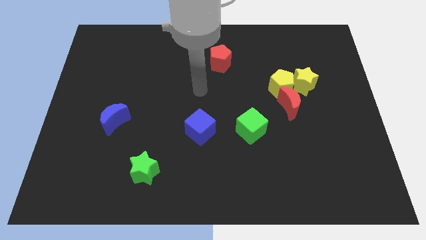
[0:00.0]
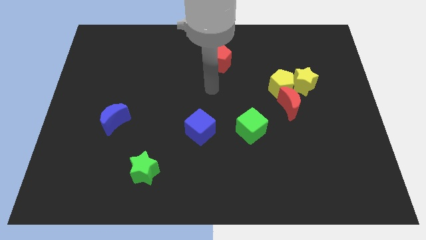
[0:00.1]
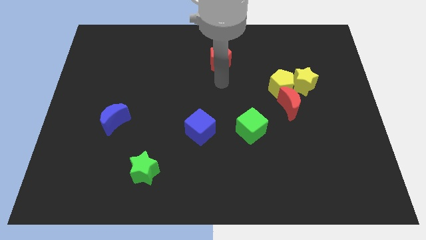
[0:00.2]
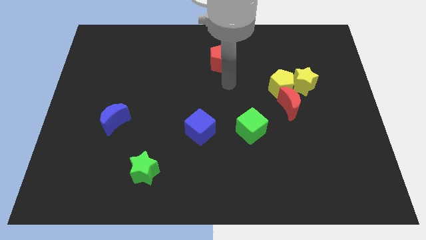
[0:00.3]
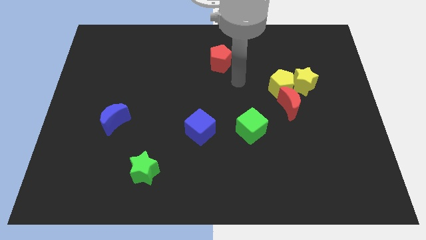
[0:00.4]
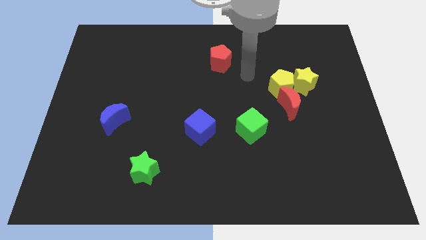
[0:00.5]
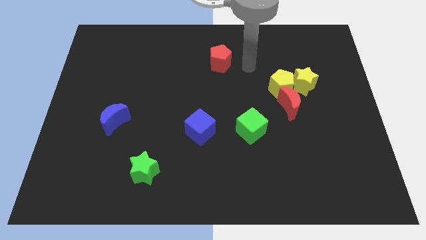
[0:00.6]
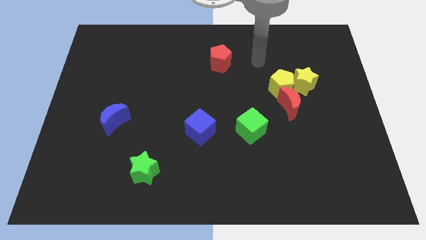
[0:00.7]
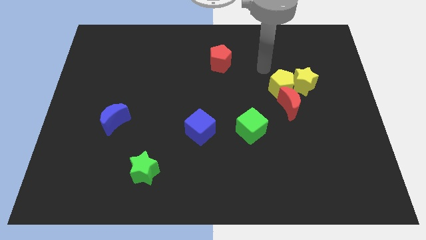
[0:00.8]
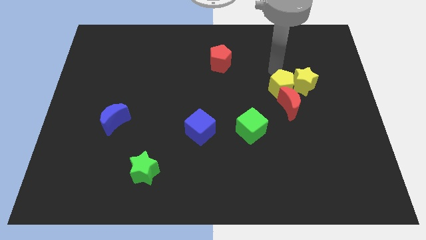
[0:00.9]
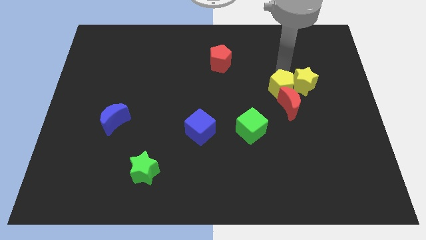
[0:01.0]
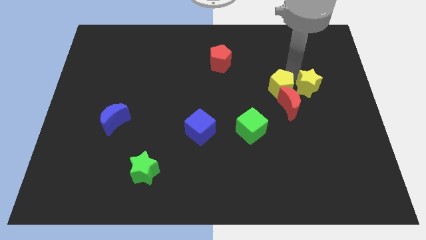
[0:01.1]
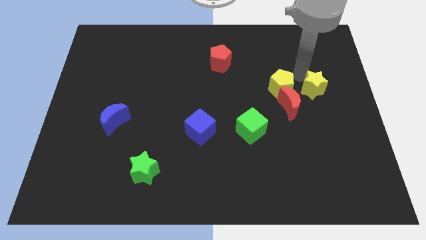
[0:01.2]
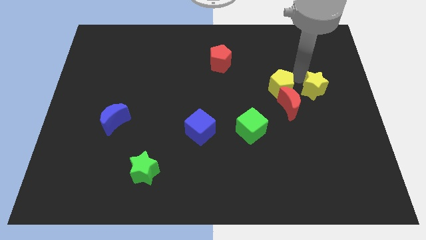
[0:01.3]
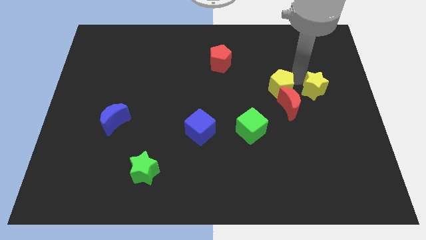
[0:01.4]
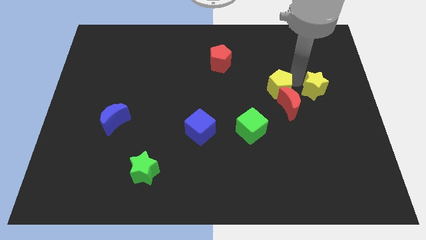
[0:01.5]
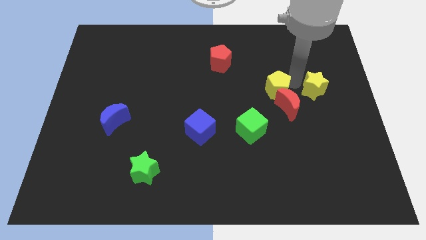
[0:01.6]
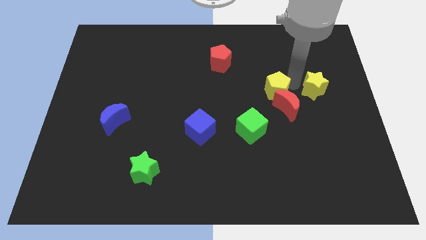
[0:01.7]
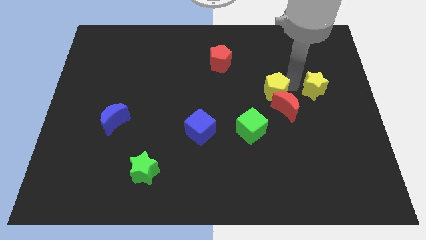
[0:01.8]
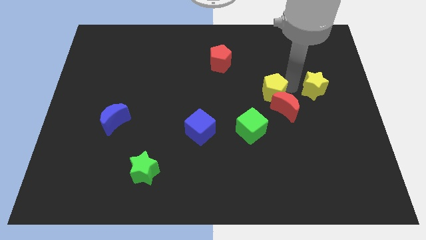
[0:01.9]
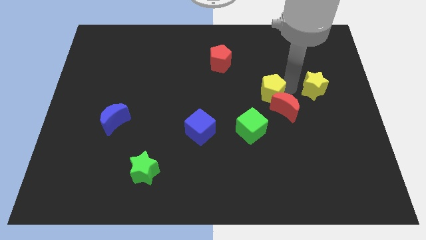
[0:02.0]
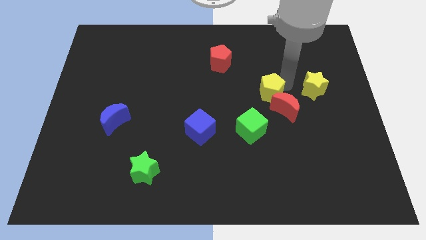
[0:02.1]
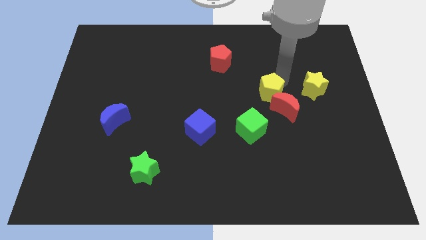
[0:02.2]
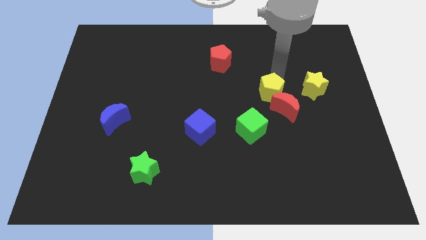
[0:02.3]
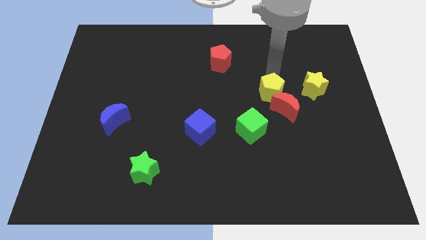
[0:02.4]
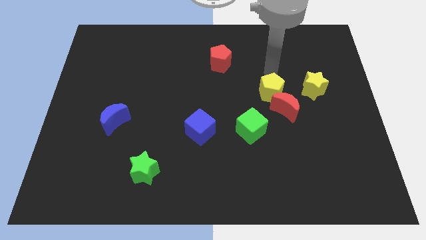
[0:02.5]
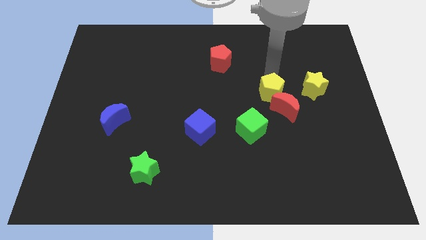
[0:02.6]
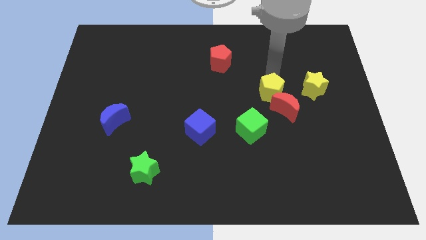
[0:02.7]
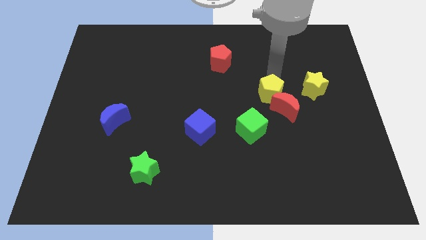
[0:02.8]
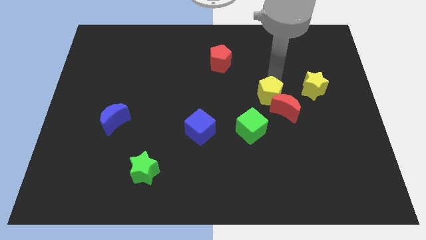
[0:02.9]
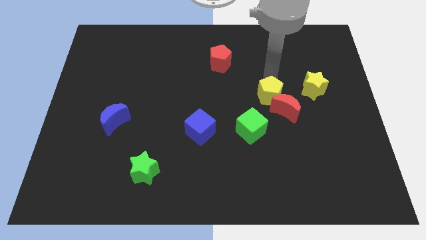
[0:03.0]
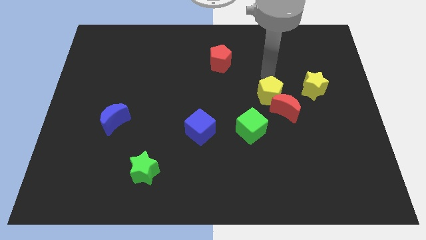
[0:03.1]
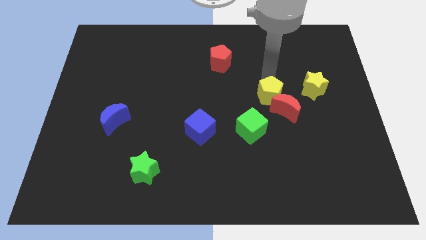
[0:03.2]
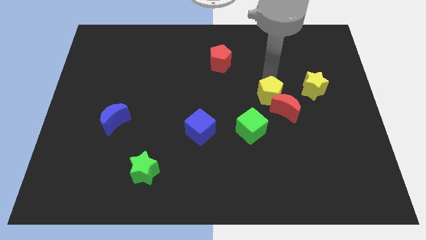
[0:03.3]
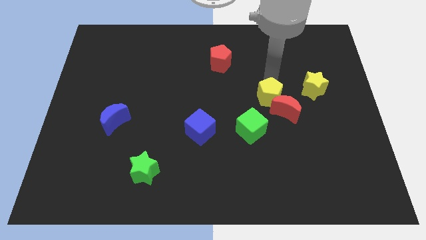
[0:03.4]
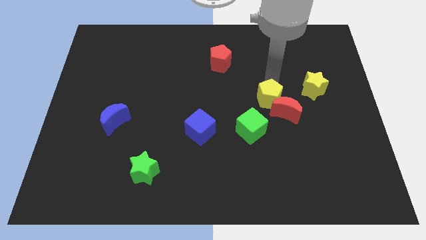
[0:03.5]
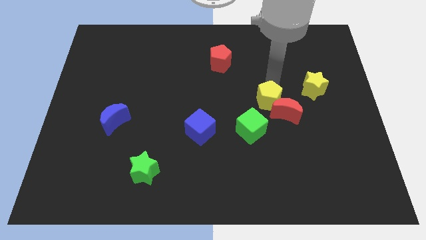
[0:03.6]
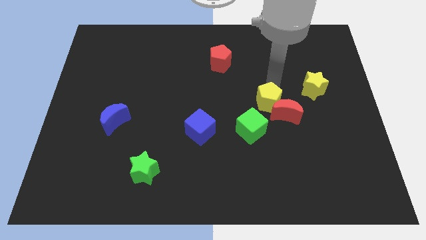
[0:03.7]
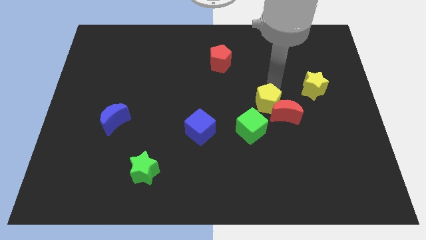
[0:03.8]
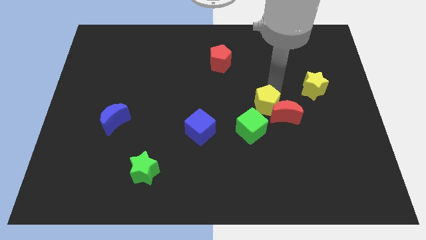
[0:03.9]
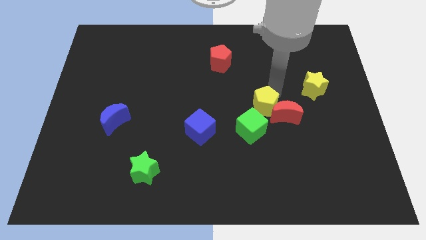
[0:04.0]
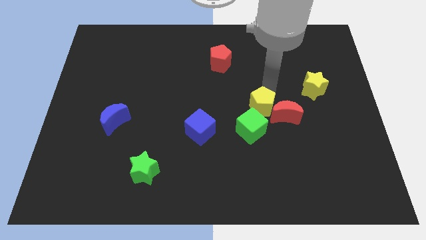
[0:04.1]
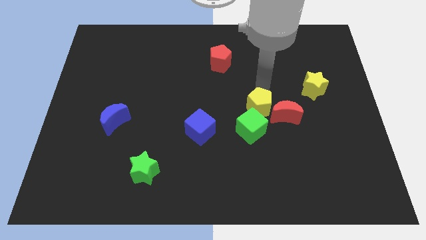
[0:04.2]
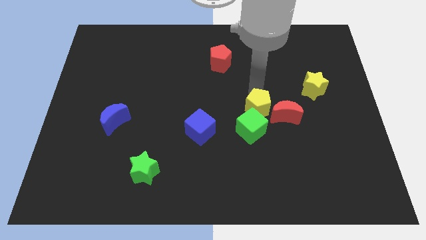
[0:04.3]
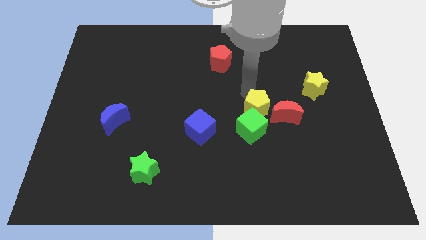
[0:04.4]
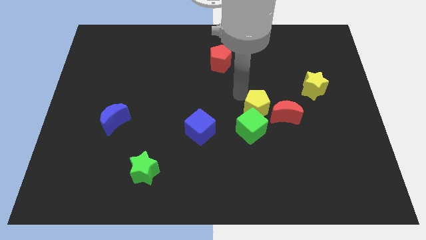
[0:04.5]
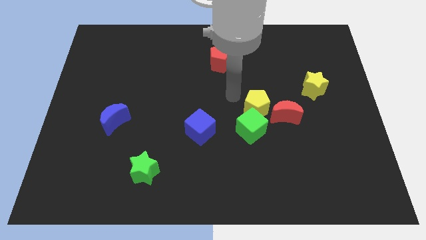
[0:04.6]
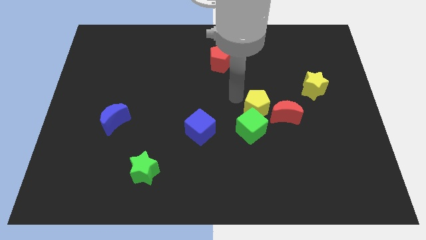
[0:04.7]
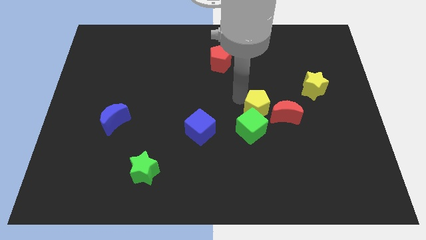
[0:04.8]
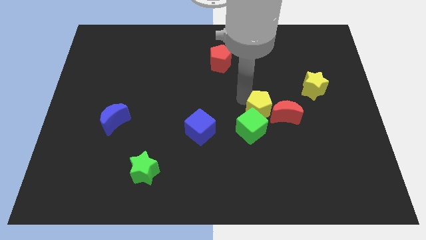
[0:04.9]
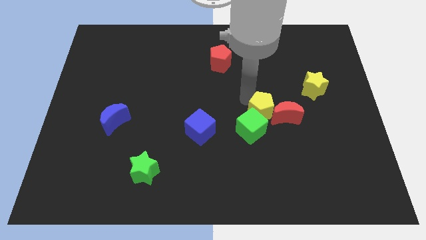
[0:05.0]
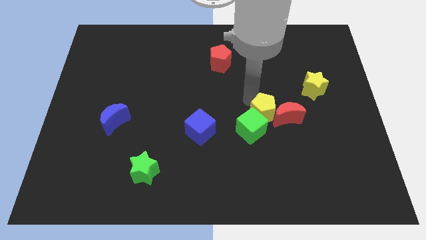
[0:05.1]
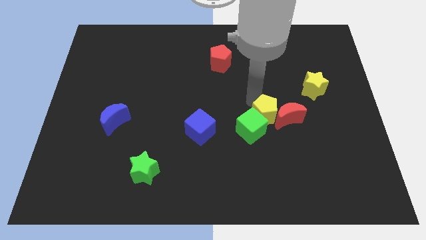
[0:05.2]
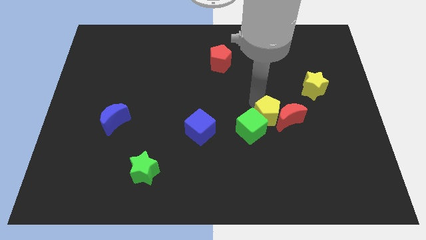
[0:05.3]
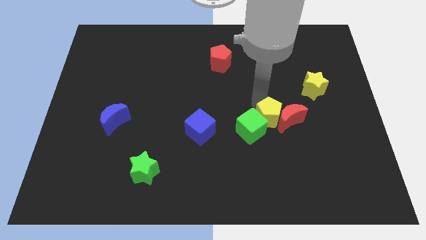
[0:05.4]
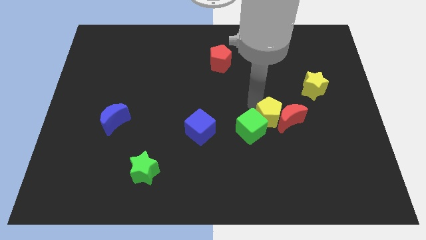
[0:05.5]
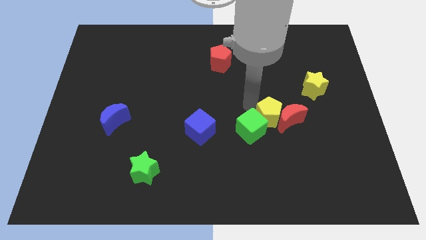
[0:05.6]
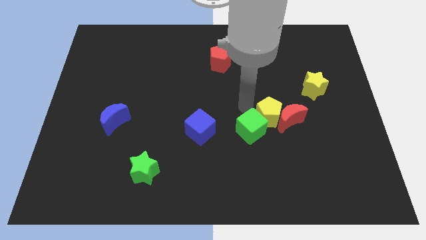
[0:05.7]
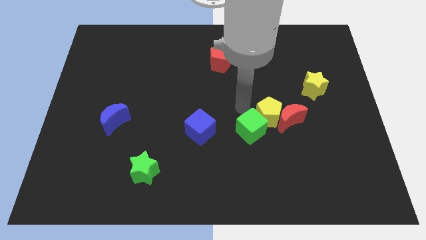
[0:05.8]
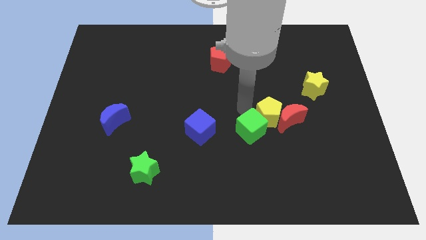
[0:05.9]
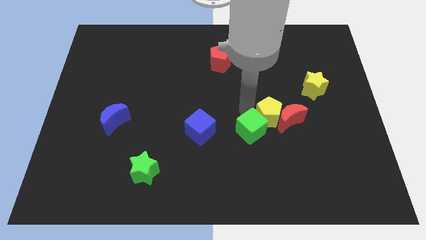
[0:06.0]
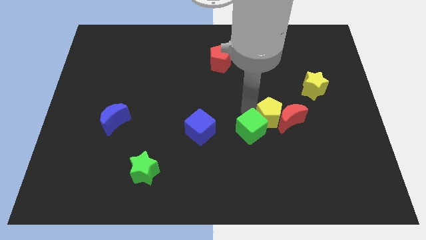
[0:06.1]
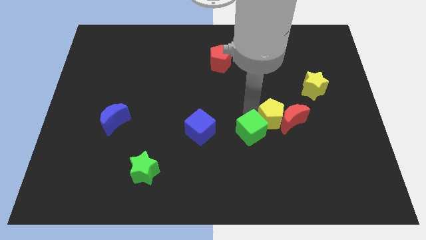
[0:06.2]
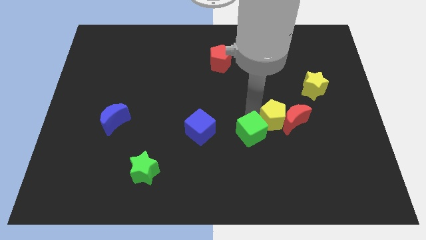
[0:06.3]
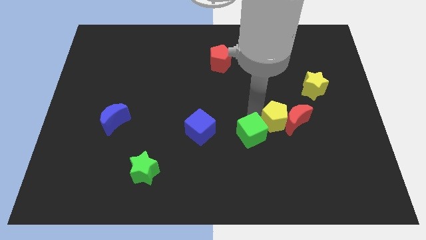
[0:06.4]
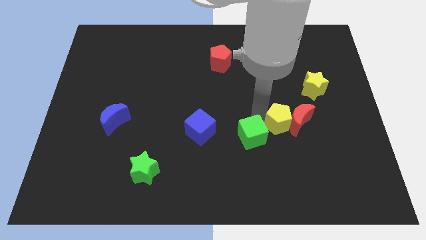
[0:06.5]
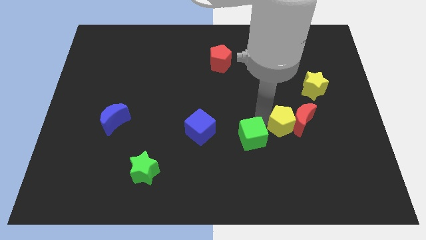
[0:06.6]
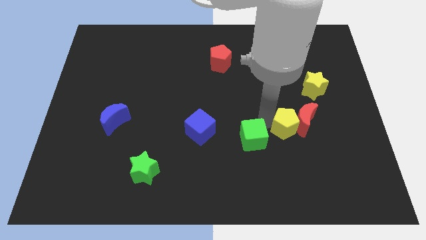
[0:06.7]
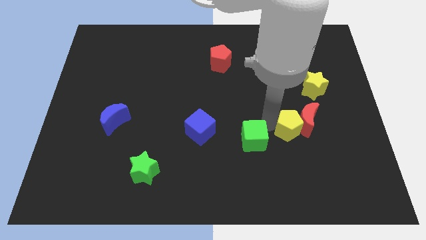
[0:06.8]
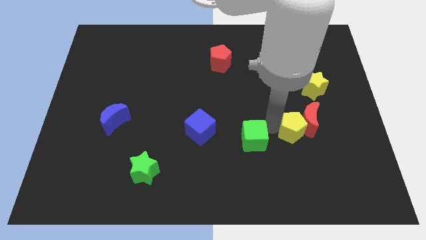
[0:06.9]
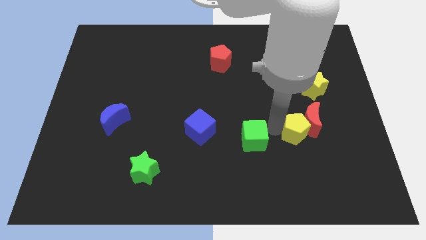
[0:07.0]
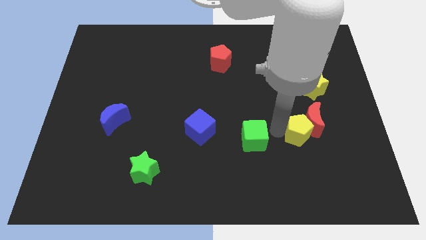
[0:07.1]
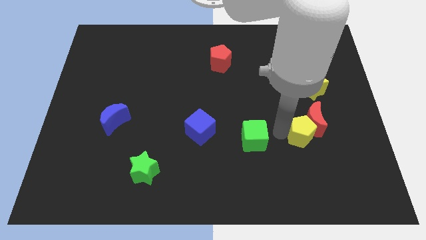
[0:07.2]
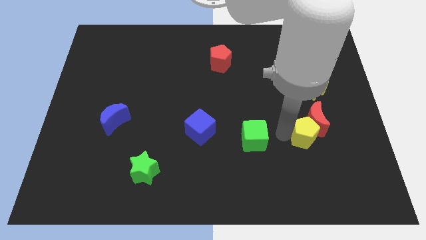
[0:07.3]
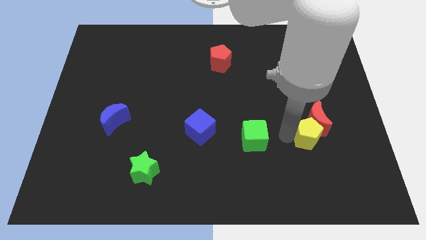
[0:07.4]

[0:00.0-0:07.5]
move the yellow pentagon to the bottom of the yellow star
